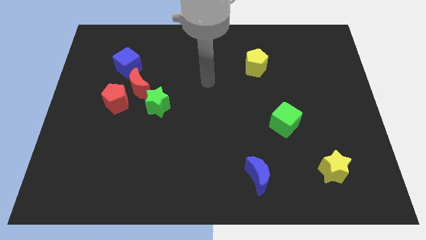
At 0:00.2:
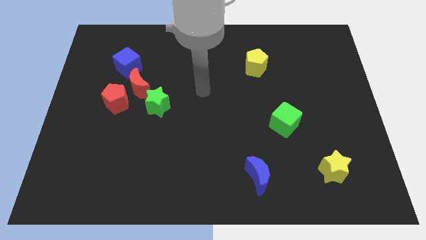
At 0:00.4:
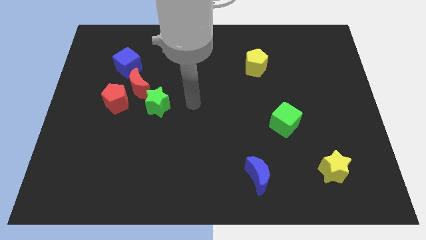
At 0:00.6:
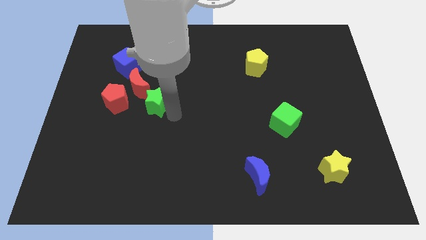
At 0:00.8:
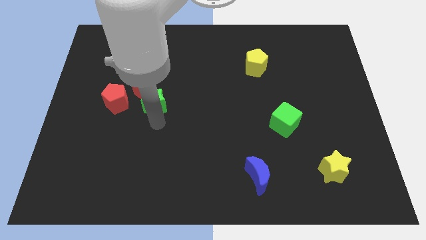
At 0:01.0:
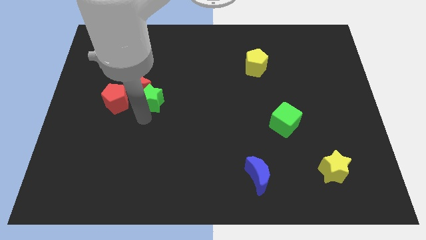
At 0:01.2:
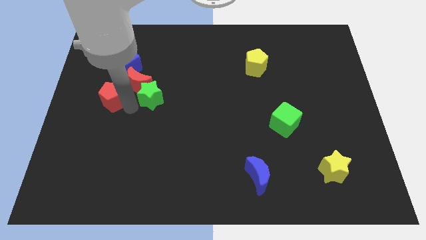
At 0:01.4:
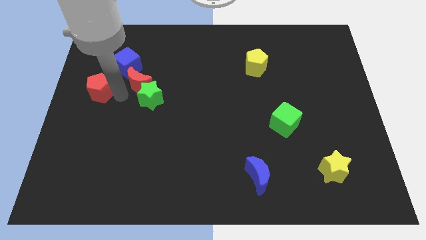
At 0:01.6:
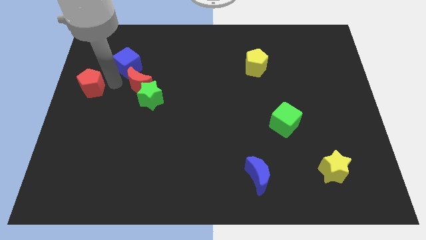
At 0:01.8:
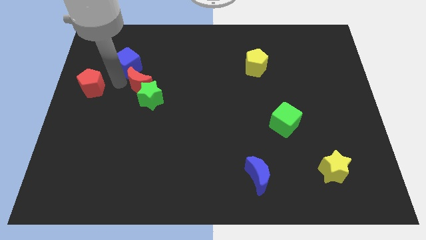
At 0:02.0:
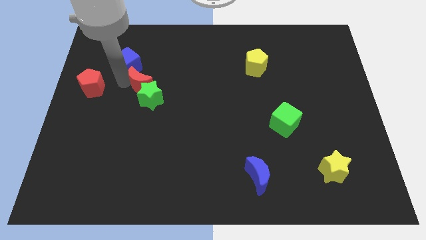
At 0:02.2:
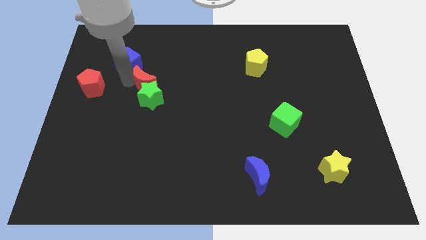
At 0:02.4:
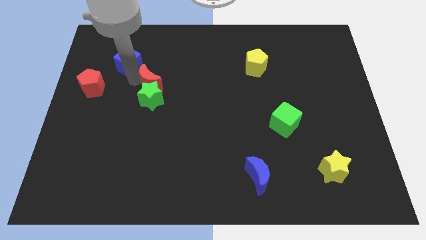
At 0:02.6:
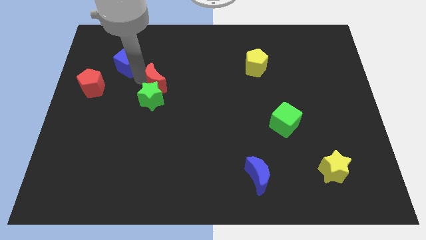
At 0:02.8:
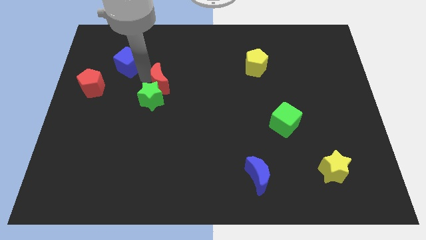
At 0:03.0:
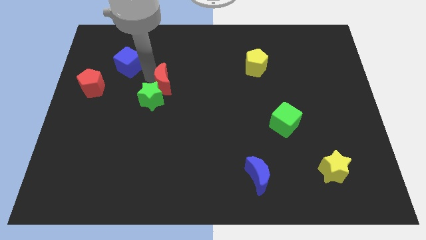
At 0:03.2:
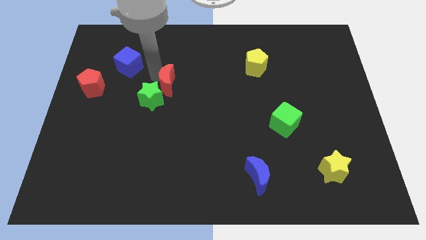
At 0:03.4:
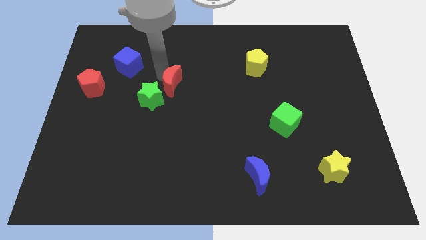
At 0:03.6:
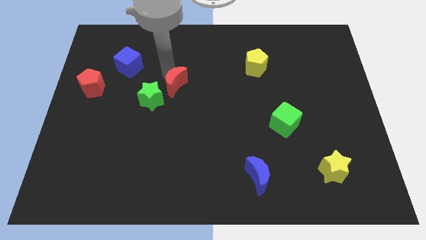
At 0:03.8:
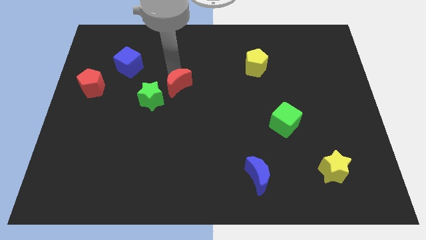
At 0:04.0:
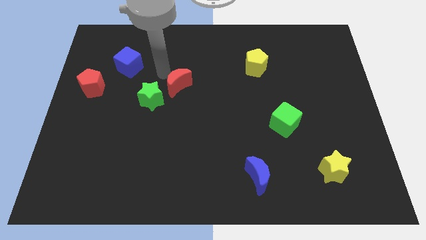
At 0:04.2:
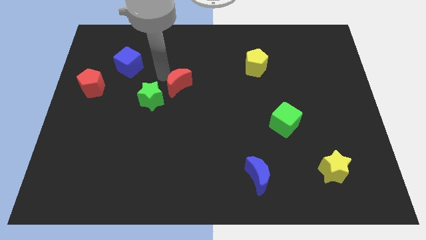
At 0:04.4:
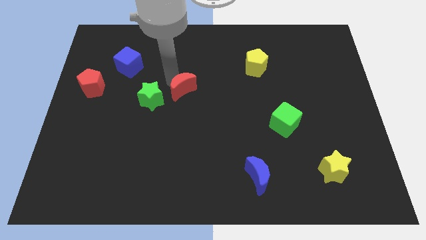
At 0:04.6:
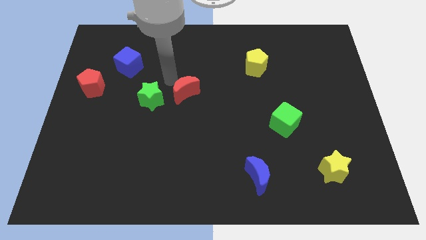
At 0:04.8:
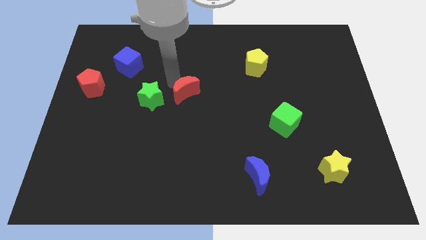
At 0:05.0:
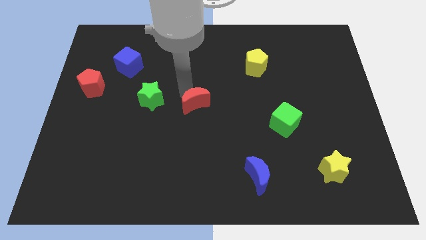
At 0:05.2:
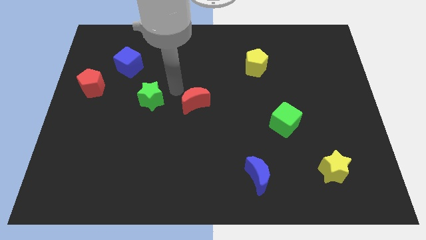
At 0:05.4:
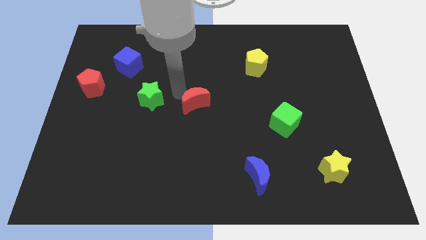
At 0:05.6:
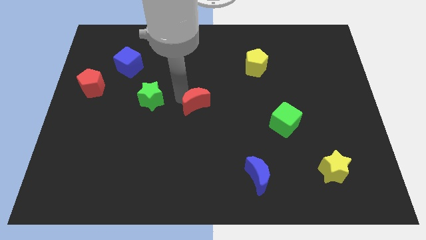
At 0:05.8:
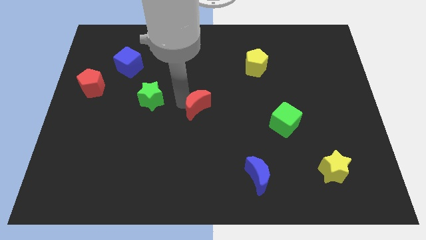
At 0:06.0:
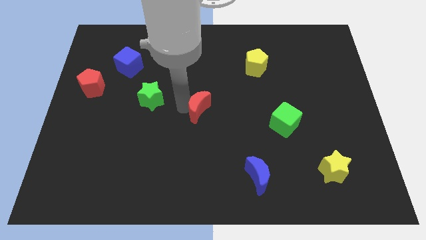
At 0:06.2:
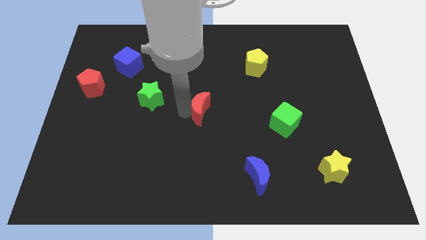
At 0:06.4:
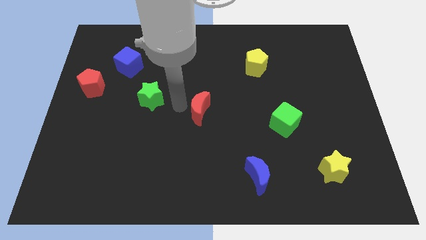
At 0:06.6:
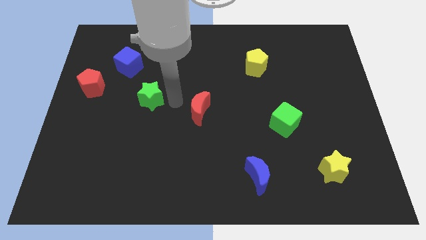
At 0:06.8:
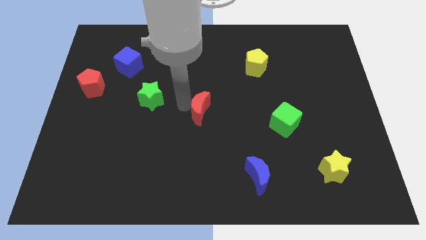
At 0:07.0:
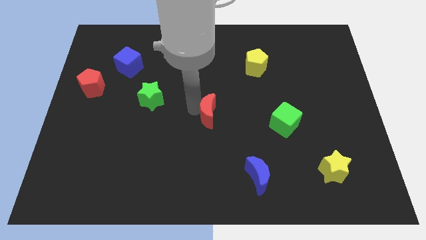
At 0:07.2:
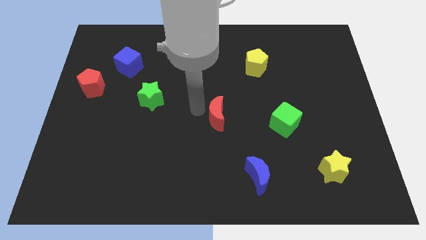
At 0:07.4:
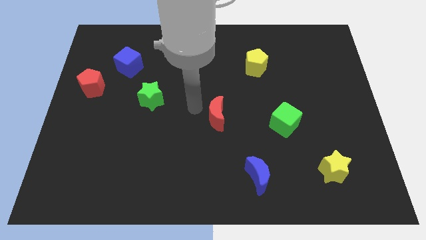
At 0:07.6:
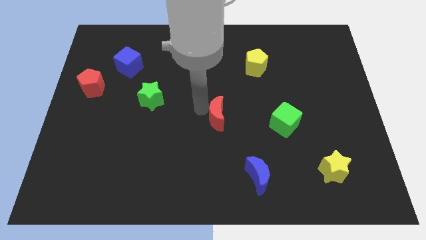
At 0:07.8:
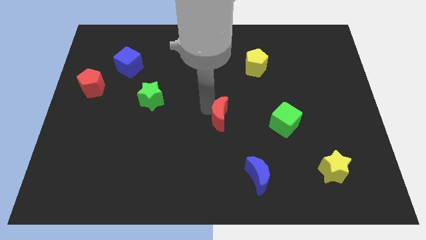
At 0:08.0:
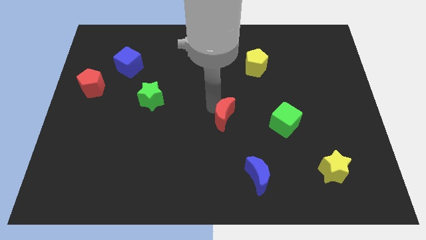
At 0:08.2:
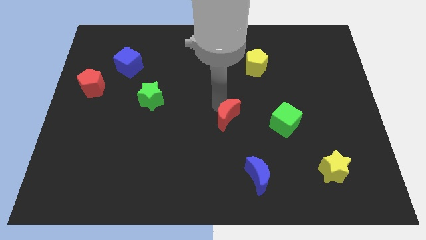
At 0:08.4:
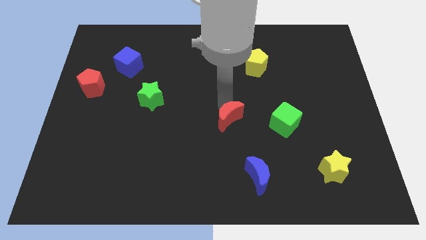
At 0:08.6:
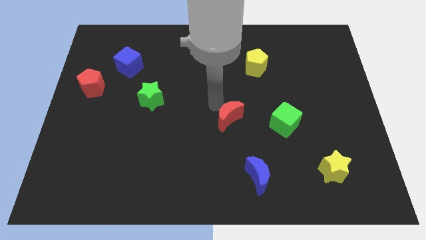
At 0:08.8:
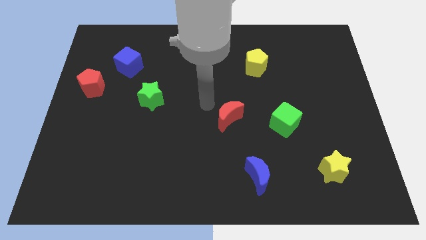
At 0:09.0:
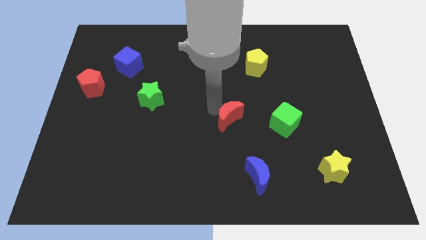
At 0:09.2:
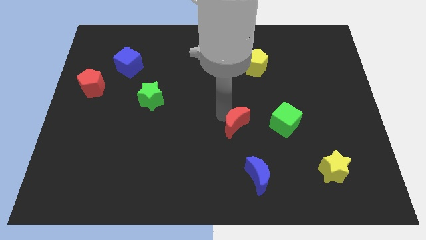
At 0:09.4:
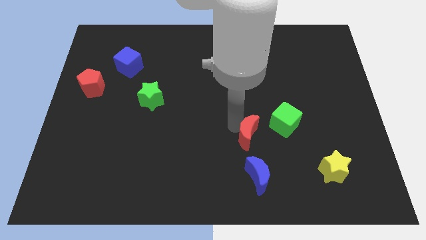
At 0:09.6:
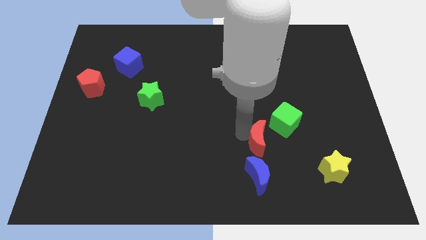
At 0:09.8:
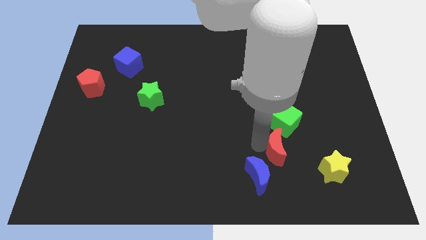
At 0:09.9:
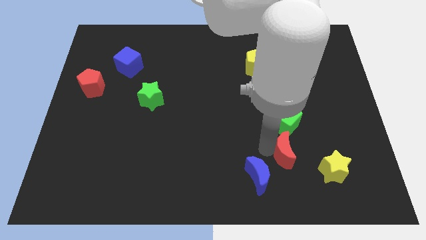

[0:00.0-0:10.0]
push the red moon to the top left of the yellow star
